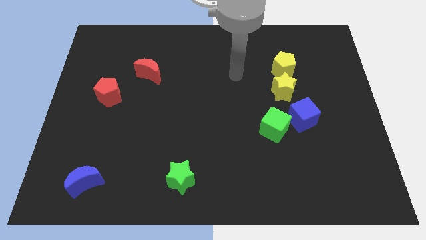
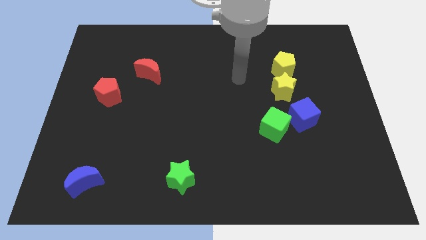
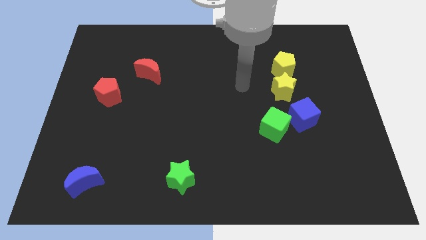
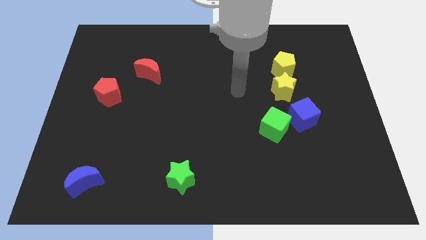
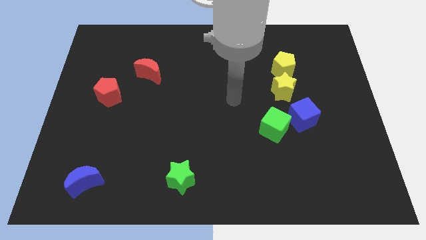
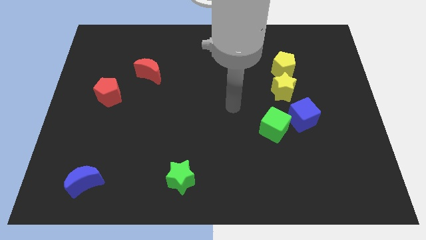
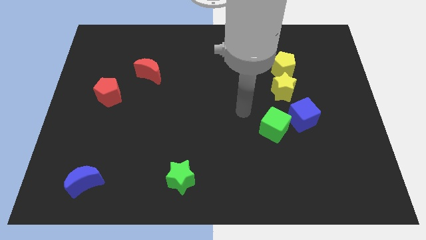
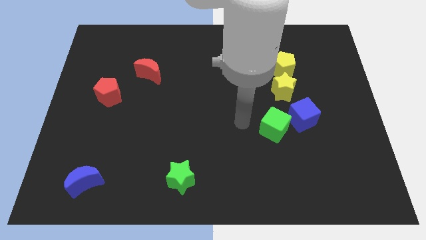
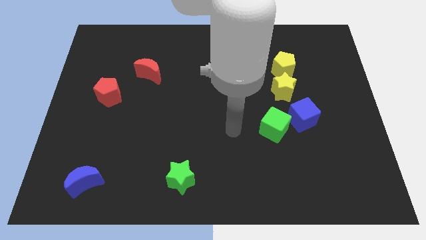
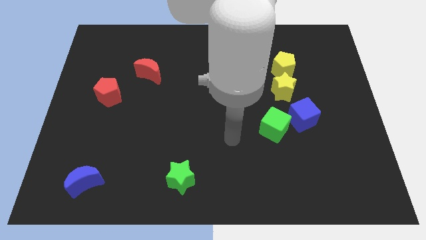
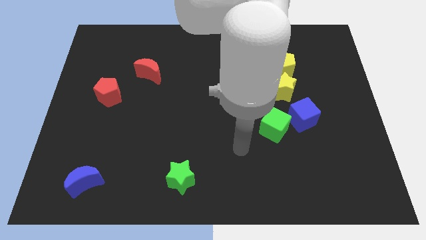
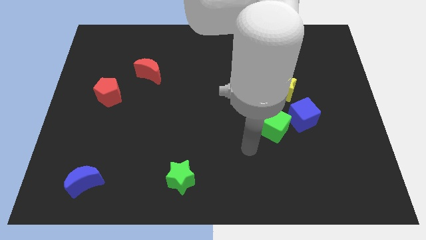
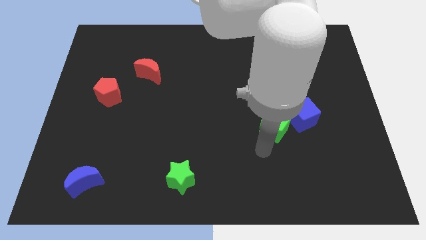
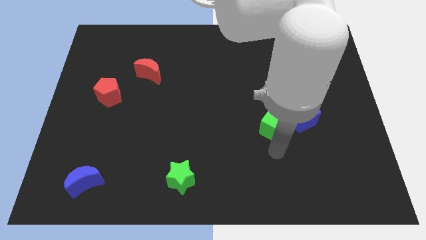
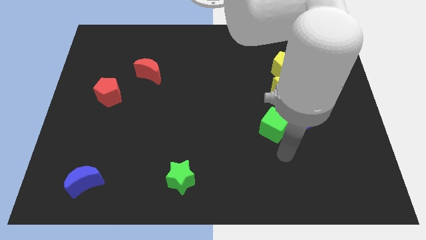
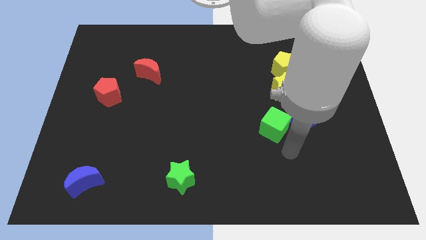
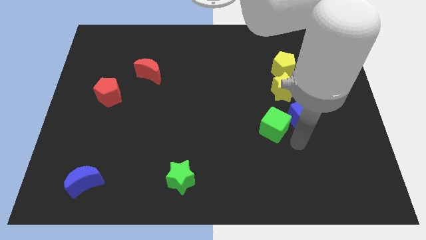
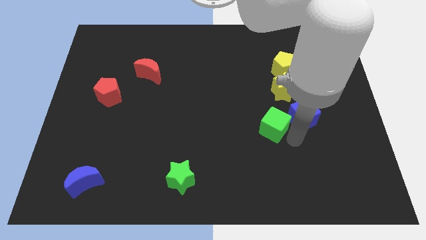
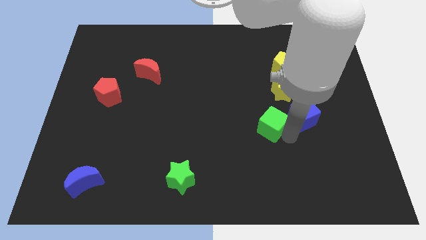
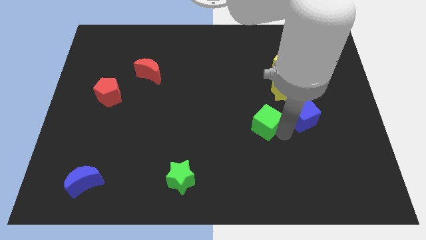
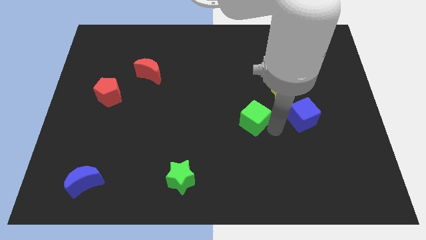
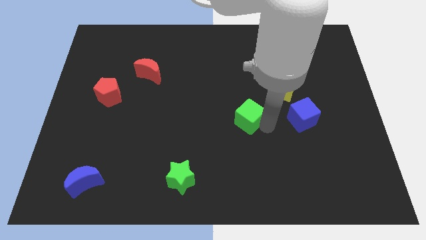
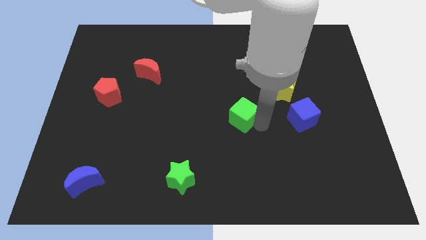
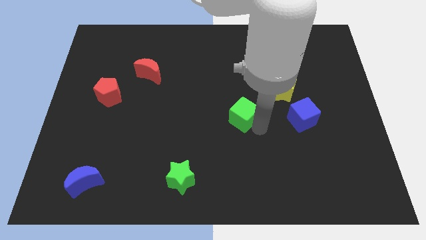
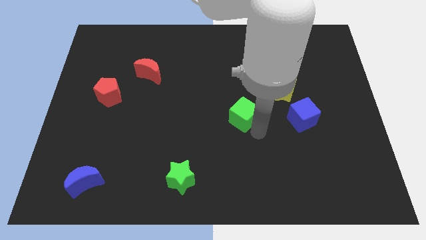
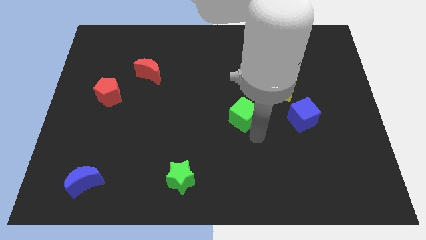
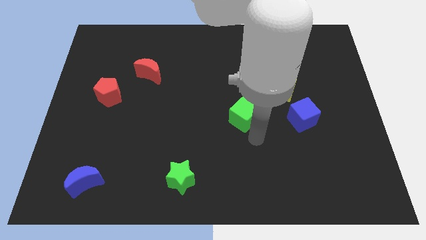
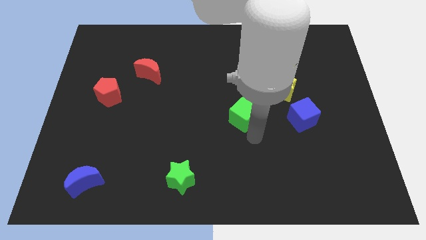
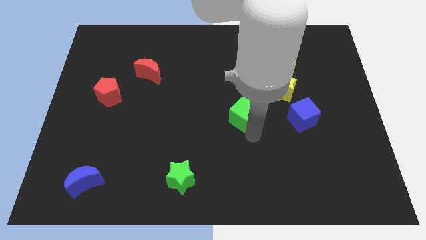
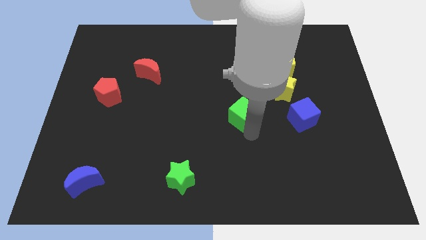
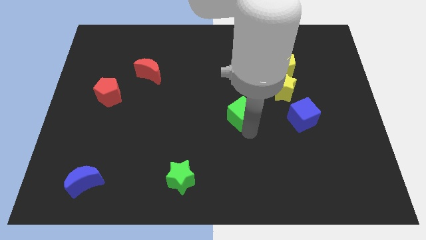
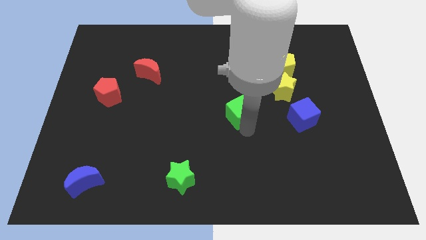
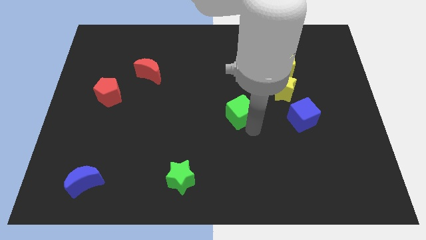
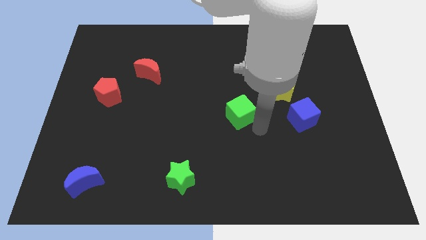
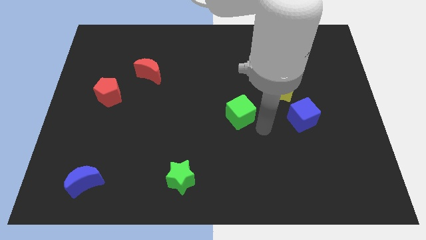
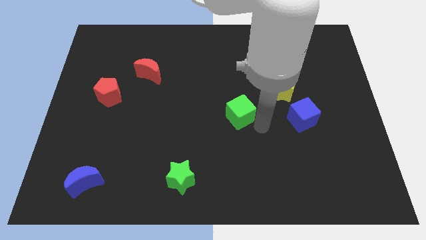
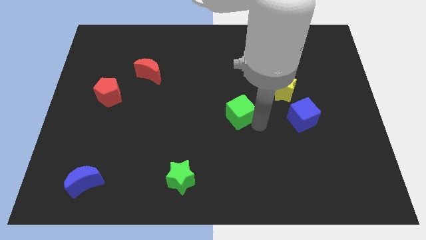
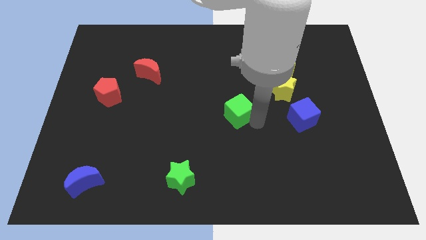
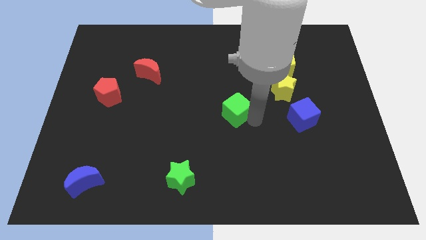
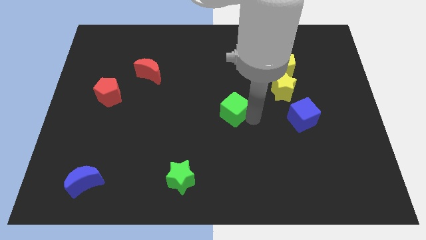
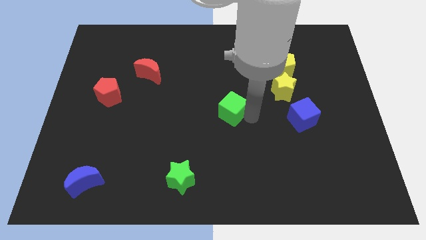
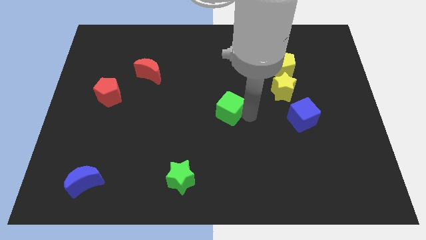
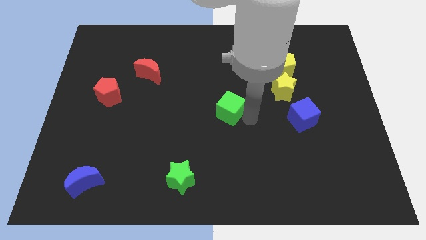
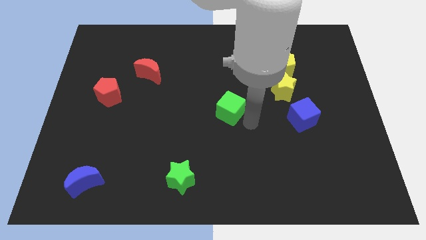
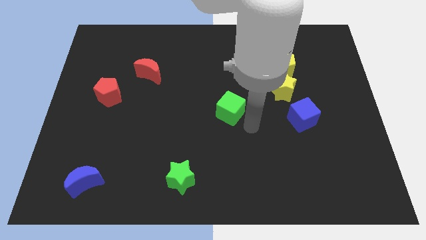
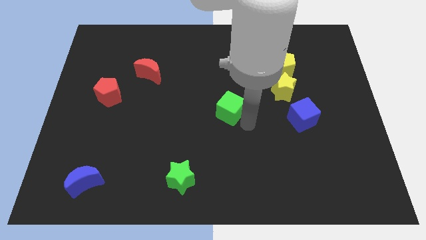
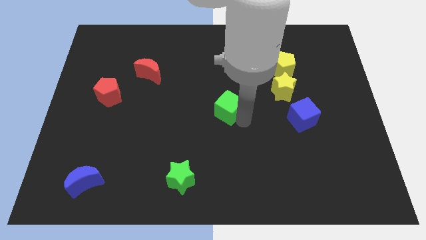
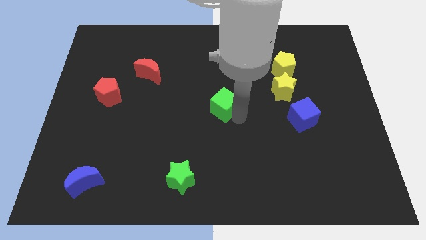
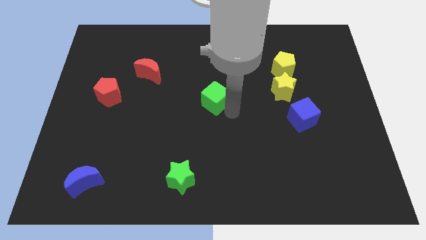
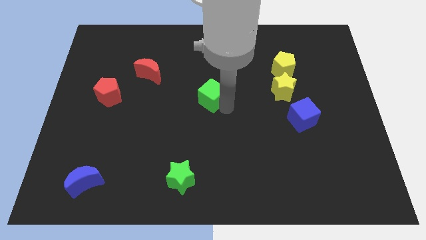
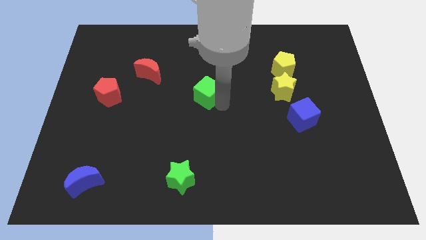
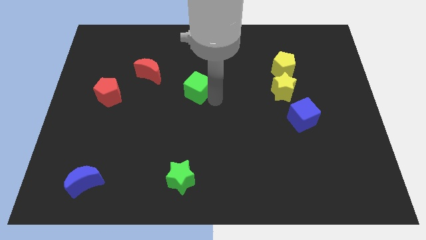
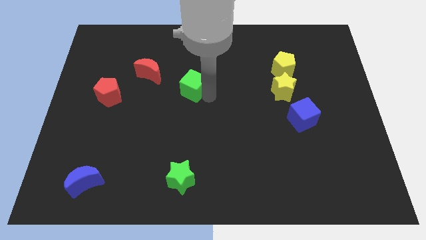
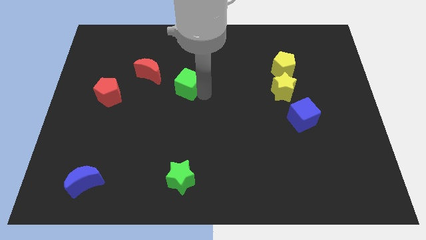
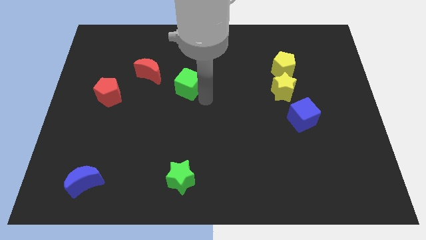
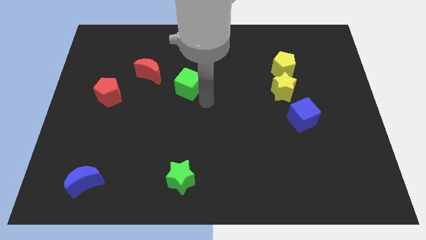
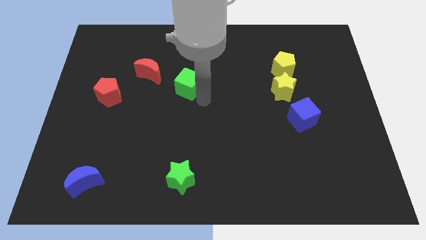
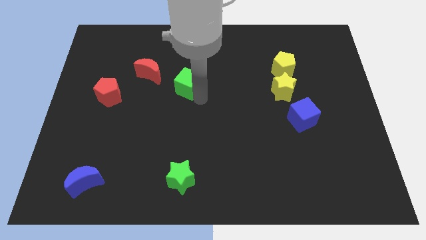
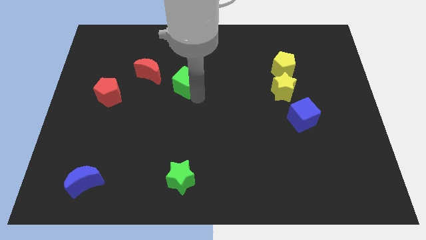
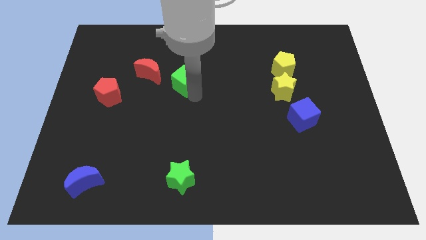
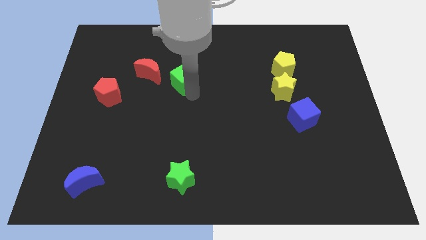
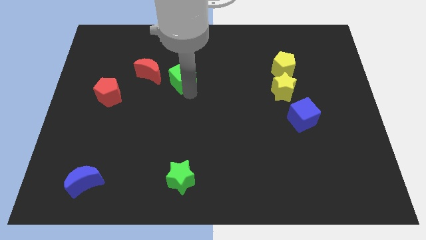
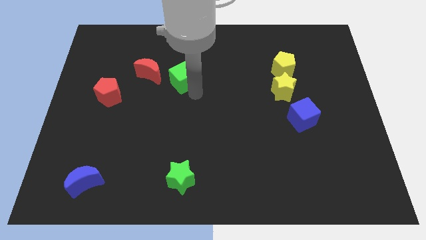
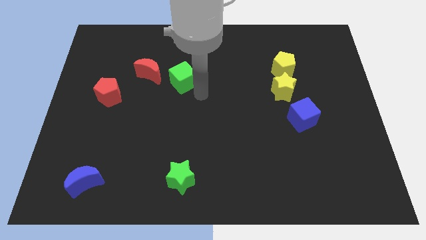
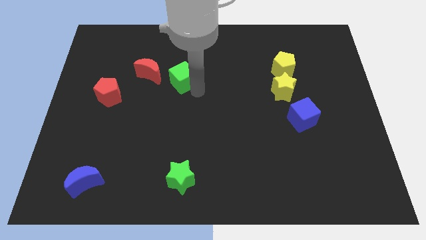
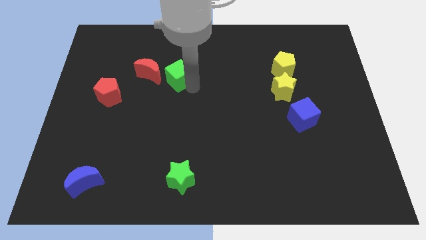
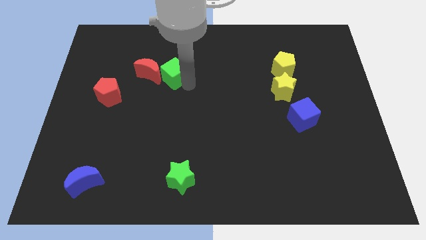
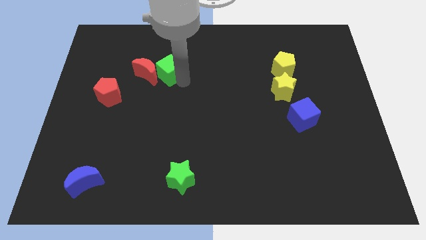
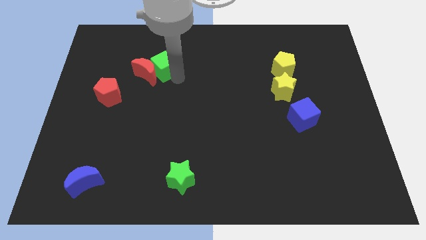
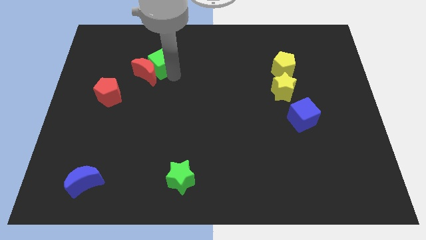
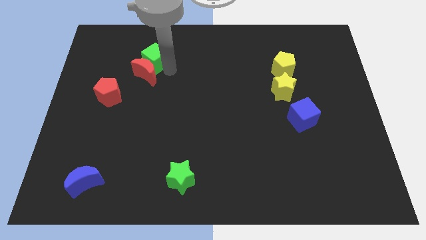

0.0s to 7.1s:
put the green cube to the top left of the red moon
